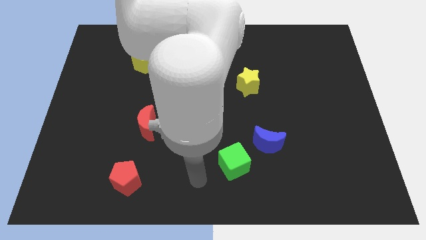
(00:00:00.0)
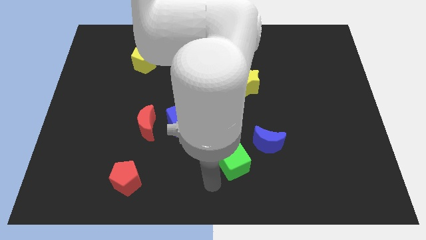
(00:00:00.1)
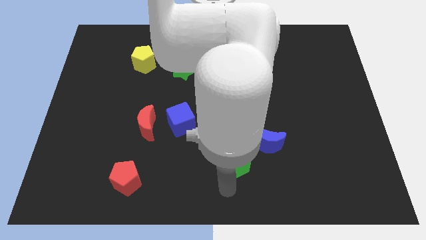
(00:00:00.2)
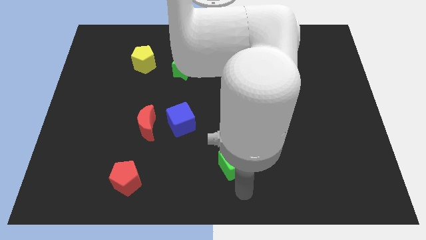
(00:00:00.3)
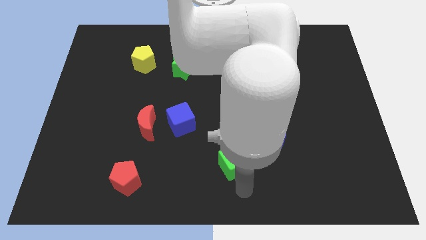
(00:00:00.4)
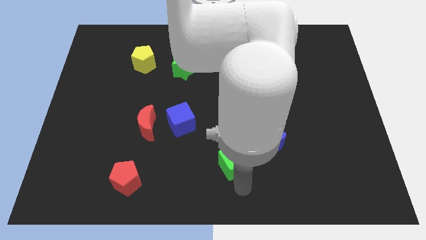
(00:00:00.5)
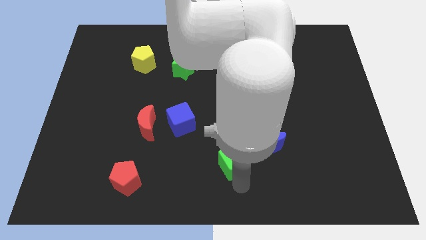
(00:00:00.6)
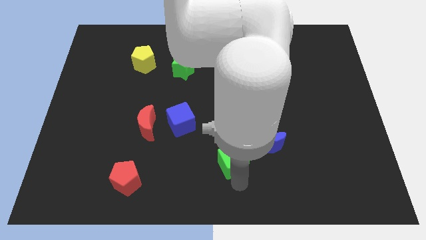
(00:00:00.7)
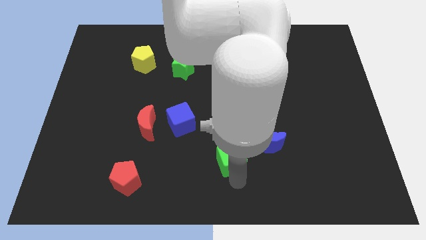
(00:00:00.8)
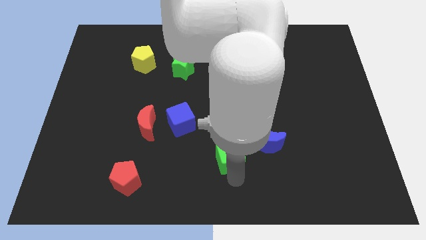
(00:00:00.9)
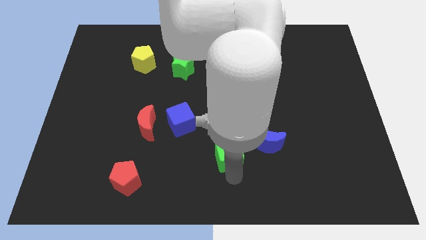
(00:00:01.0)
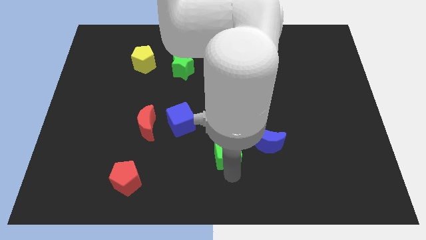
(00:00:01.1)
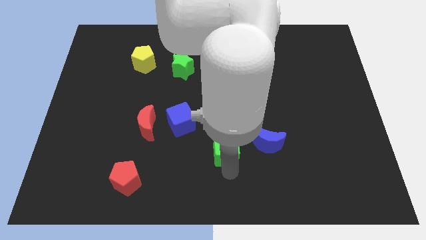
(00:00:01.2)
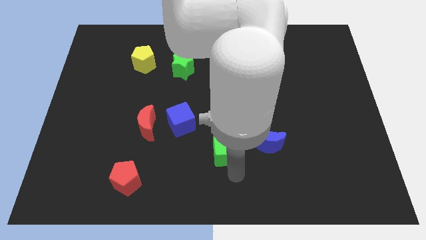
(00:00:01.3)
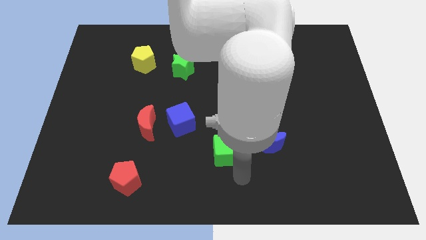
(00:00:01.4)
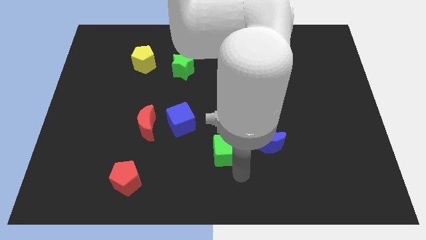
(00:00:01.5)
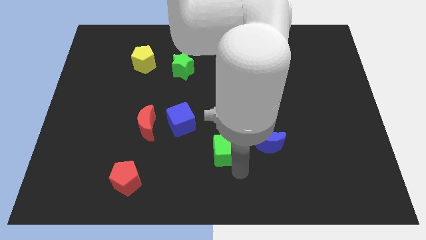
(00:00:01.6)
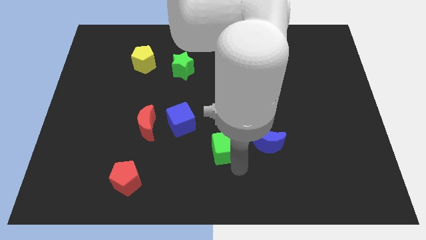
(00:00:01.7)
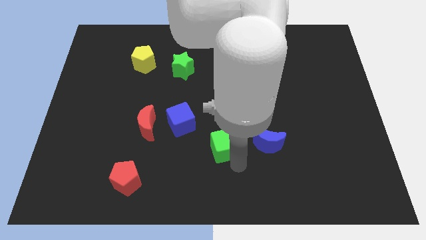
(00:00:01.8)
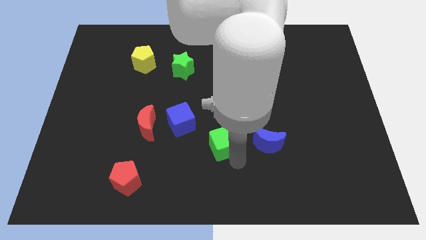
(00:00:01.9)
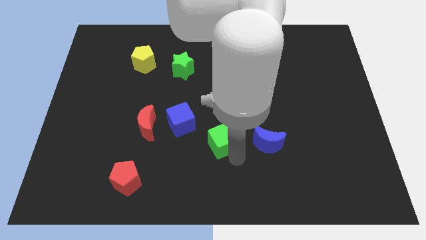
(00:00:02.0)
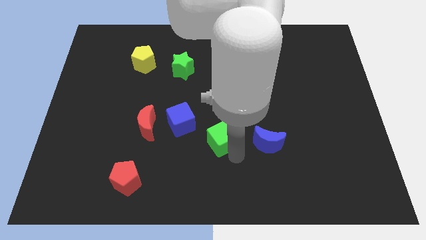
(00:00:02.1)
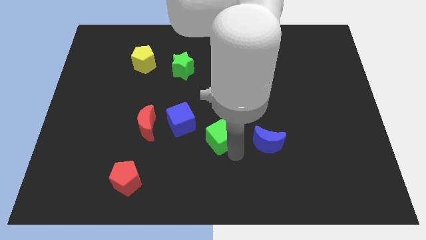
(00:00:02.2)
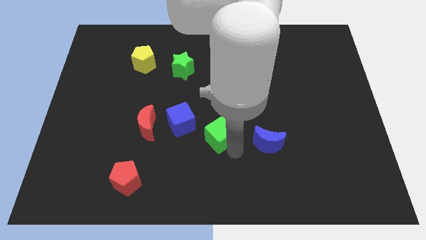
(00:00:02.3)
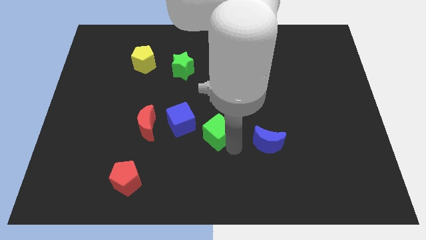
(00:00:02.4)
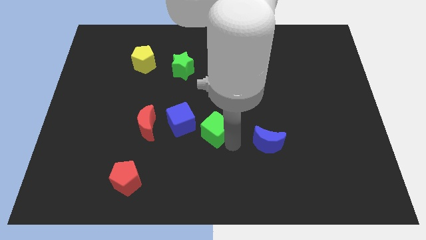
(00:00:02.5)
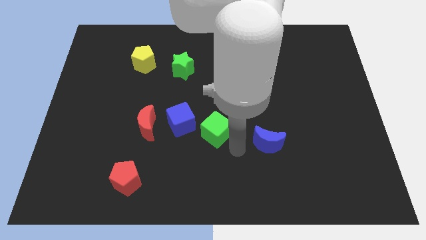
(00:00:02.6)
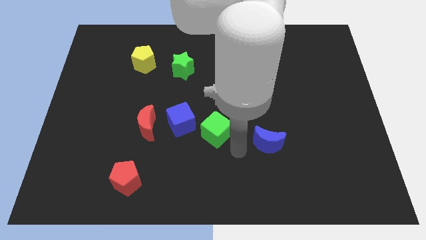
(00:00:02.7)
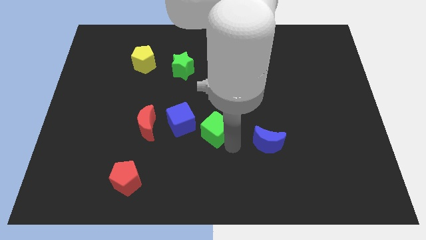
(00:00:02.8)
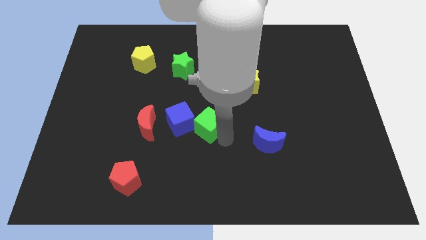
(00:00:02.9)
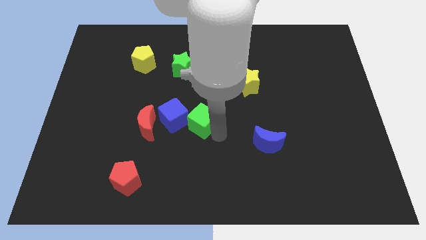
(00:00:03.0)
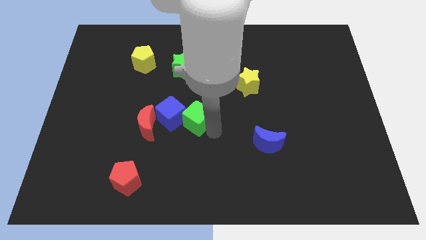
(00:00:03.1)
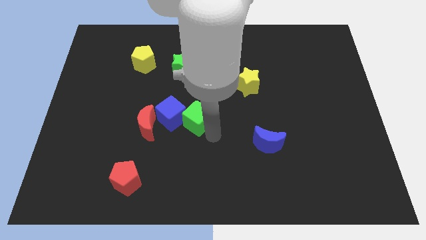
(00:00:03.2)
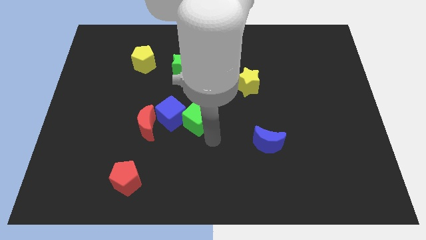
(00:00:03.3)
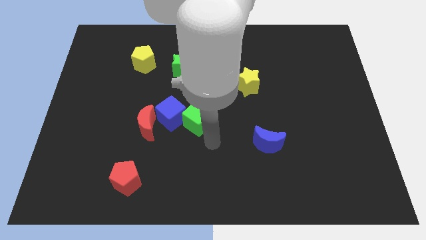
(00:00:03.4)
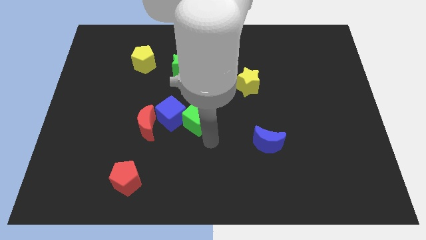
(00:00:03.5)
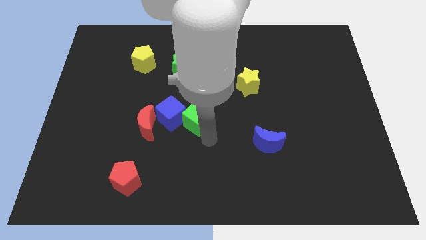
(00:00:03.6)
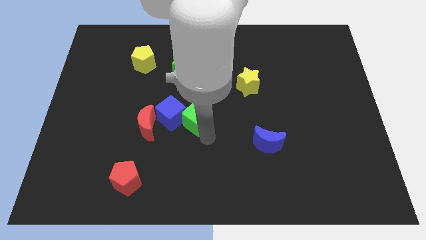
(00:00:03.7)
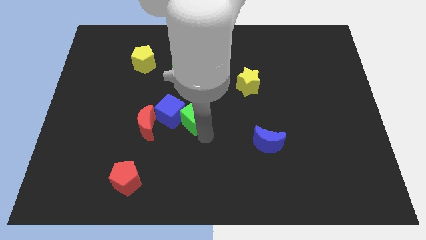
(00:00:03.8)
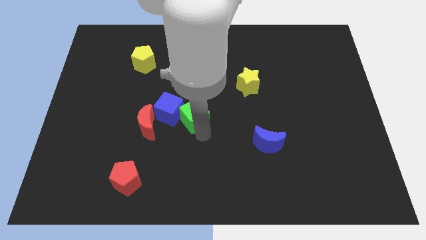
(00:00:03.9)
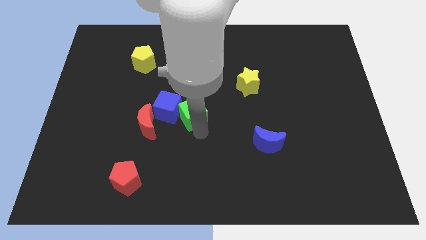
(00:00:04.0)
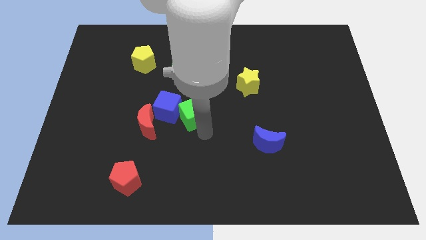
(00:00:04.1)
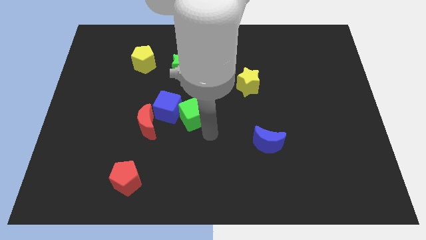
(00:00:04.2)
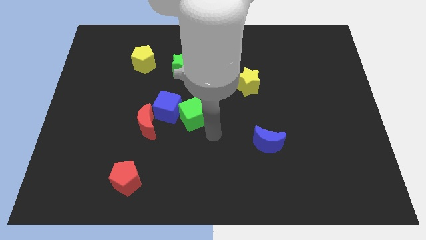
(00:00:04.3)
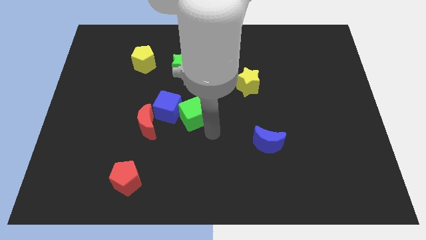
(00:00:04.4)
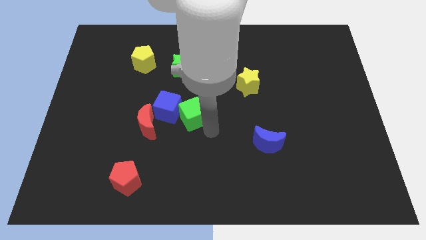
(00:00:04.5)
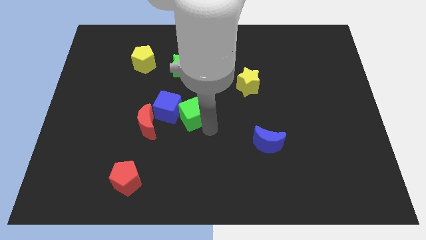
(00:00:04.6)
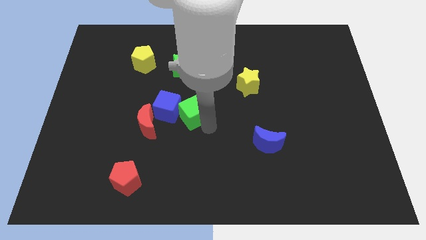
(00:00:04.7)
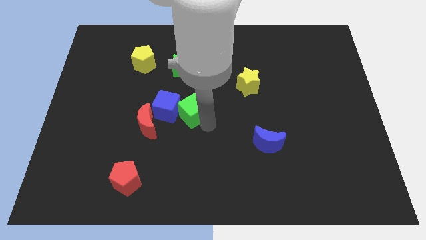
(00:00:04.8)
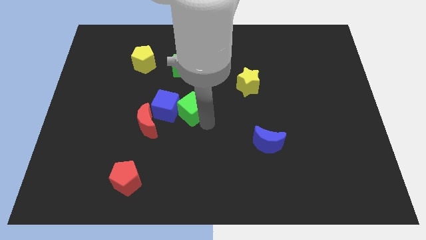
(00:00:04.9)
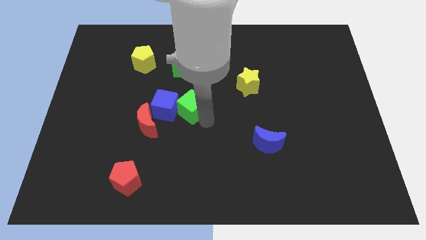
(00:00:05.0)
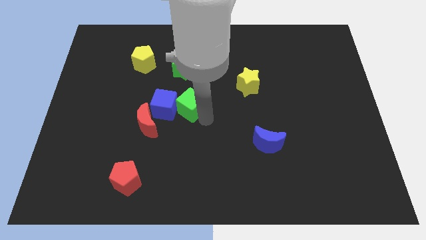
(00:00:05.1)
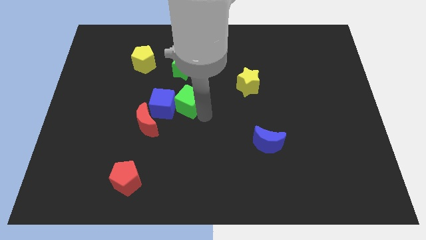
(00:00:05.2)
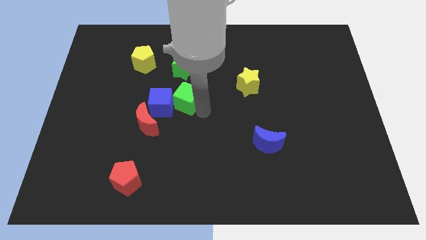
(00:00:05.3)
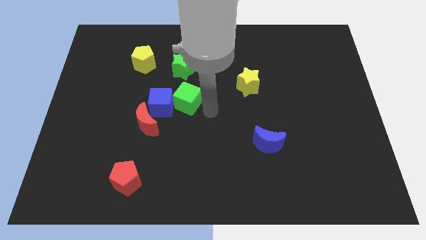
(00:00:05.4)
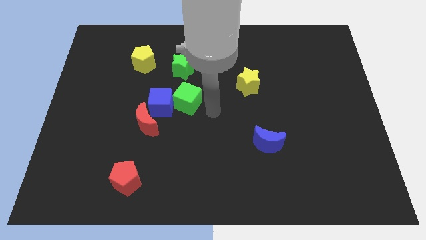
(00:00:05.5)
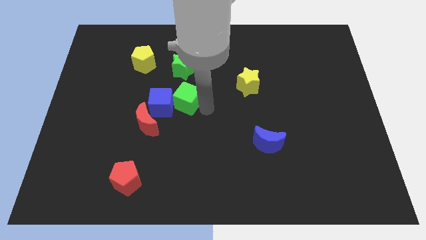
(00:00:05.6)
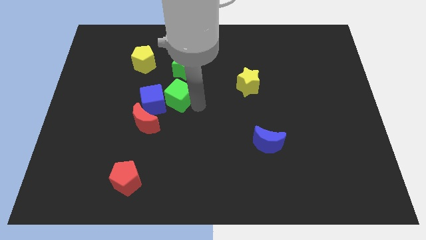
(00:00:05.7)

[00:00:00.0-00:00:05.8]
move the green cube diagonally upwards and left

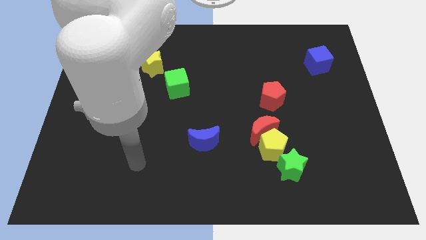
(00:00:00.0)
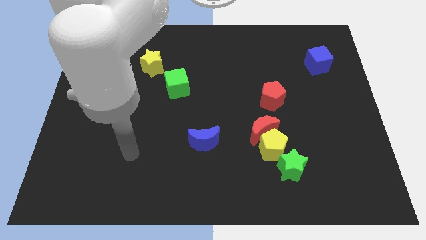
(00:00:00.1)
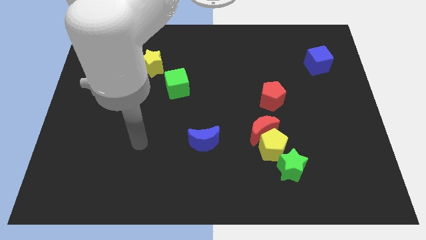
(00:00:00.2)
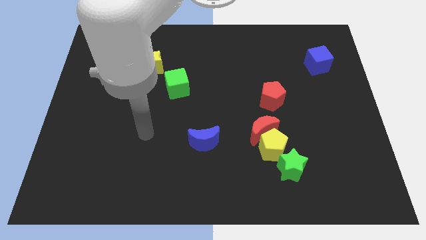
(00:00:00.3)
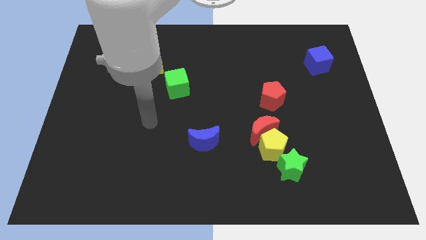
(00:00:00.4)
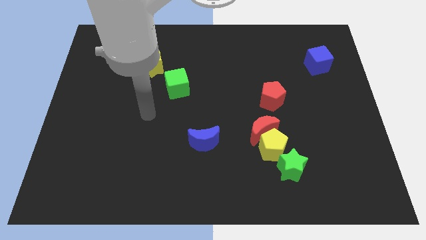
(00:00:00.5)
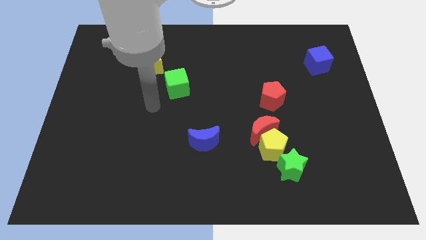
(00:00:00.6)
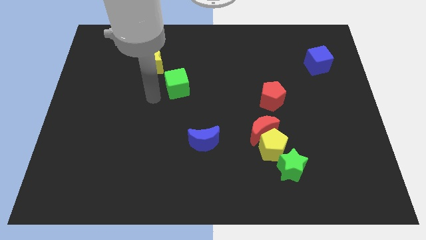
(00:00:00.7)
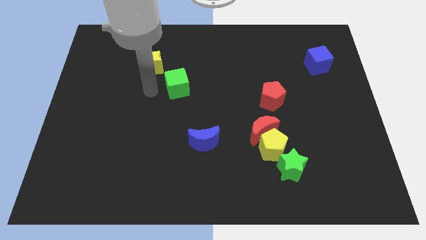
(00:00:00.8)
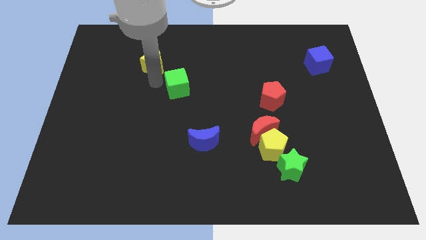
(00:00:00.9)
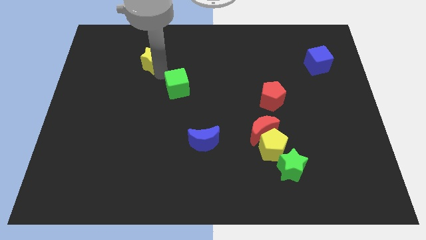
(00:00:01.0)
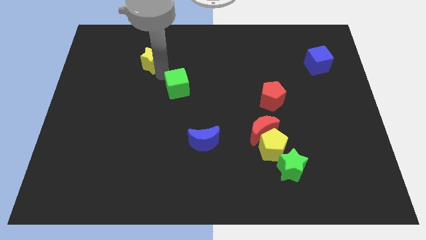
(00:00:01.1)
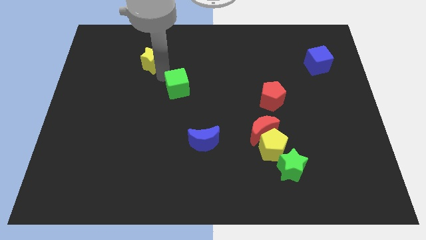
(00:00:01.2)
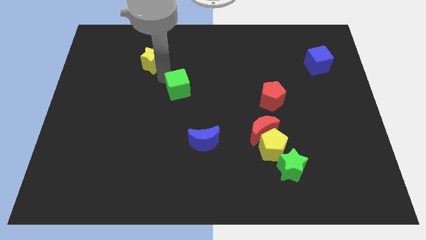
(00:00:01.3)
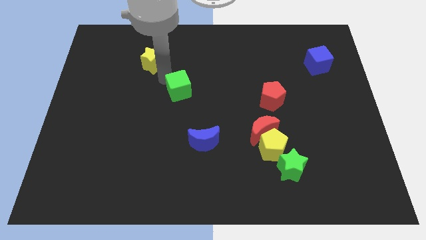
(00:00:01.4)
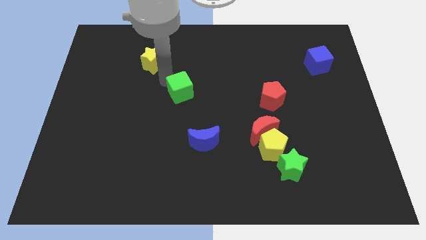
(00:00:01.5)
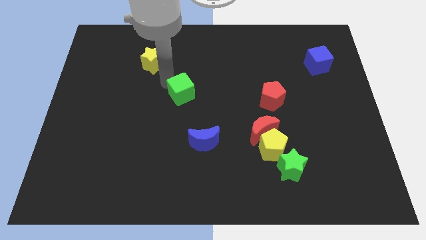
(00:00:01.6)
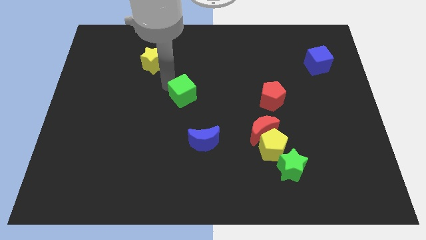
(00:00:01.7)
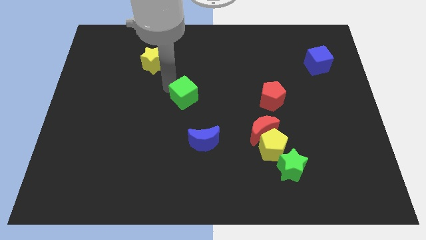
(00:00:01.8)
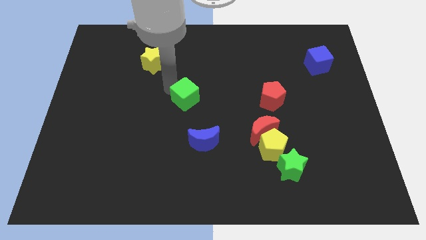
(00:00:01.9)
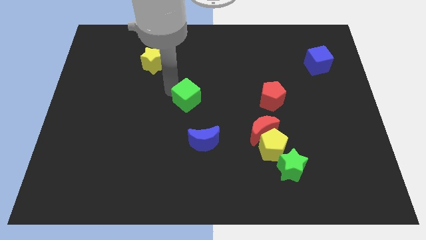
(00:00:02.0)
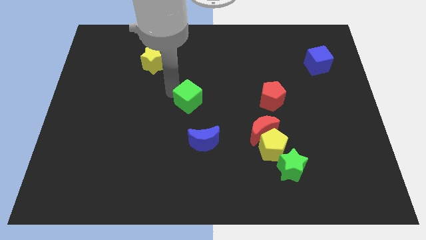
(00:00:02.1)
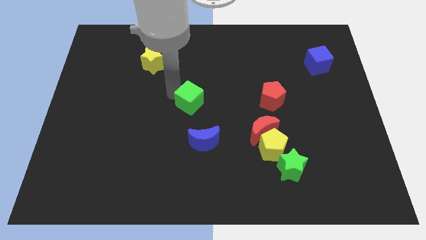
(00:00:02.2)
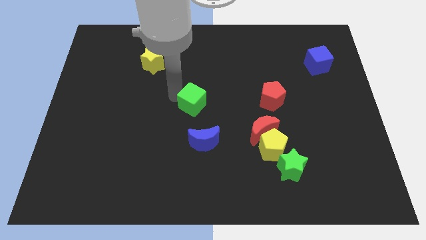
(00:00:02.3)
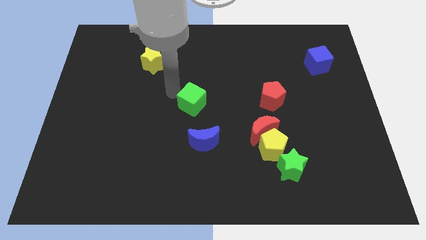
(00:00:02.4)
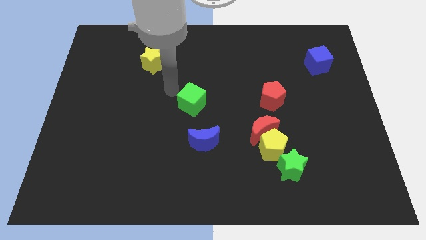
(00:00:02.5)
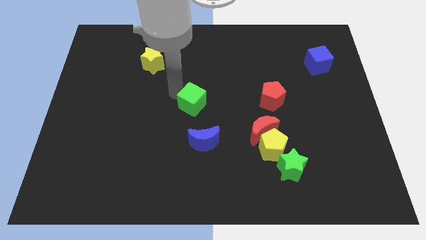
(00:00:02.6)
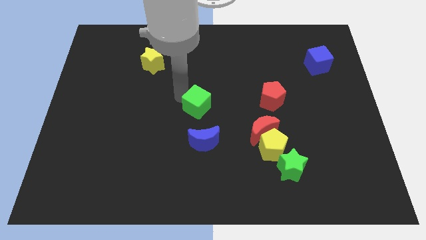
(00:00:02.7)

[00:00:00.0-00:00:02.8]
slightly slide the green cube diagonally down and to the right
